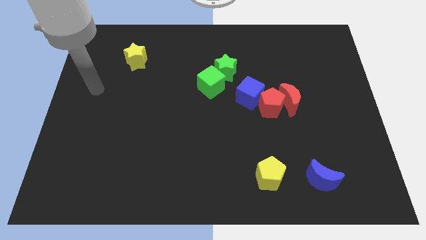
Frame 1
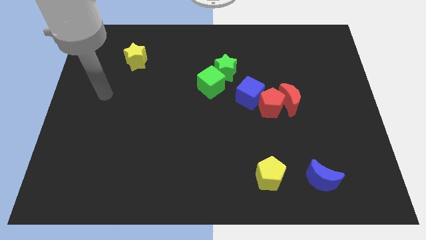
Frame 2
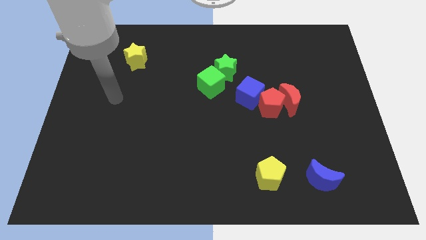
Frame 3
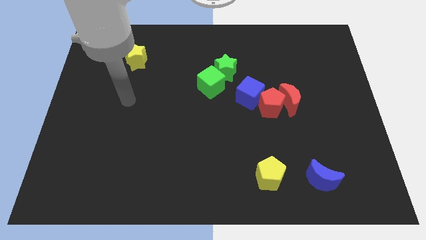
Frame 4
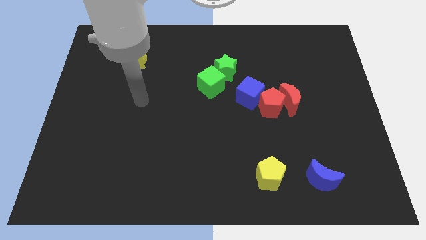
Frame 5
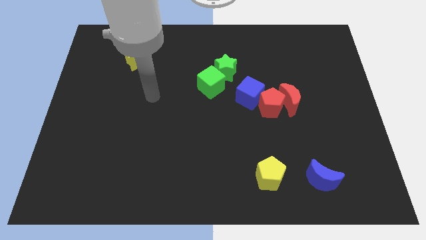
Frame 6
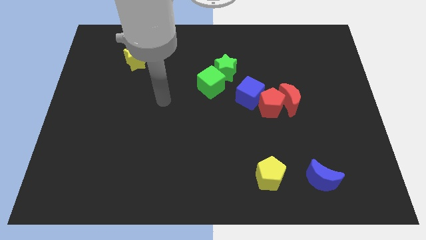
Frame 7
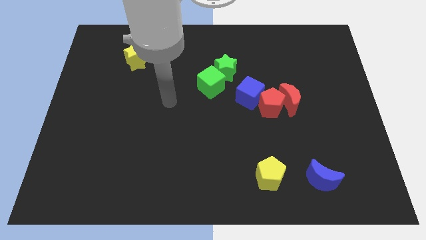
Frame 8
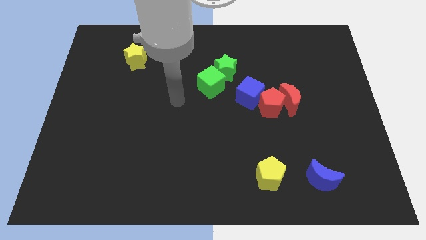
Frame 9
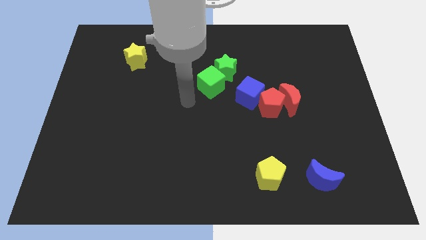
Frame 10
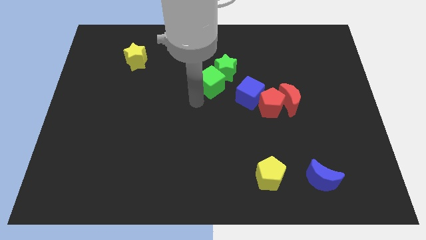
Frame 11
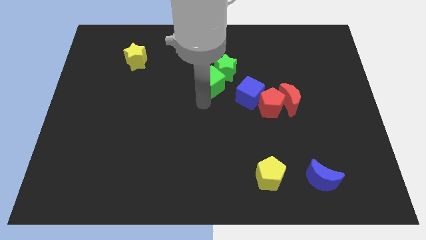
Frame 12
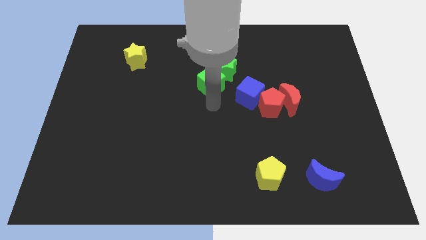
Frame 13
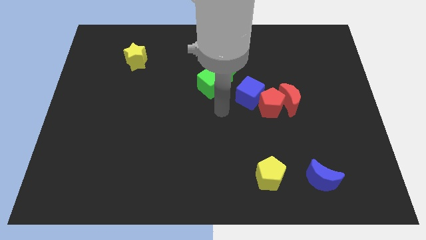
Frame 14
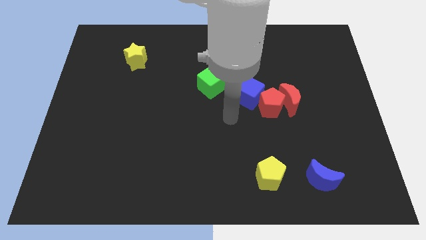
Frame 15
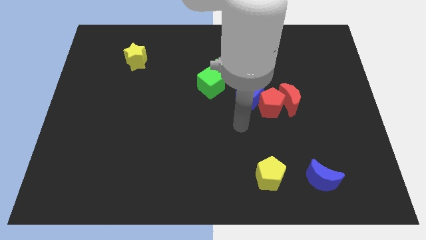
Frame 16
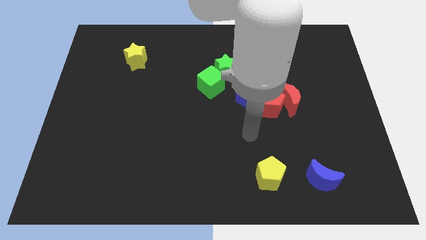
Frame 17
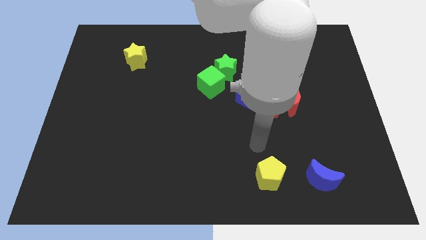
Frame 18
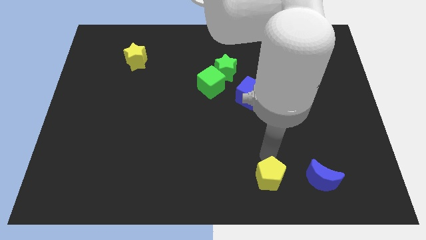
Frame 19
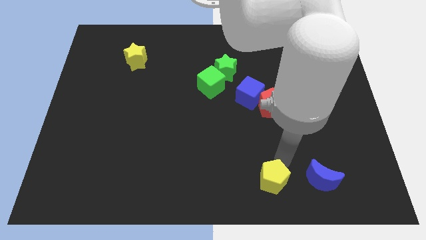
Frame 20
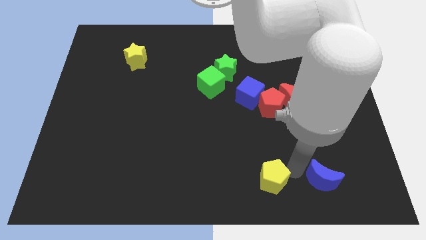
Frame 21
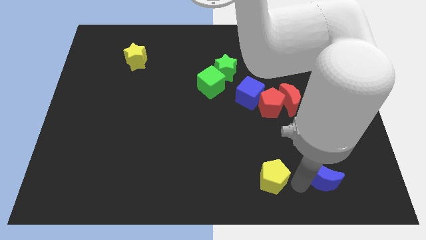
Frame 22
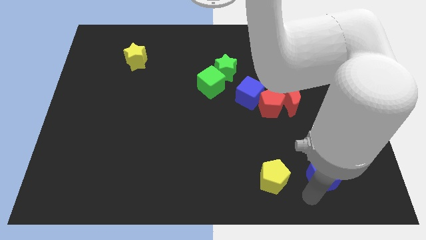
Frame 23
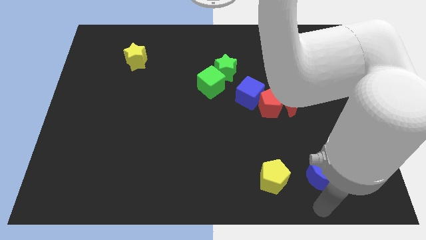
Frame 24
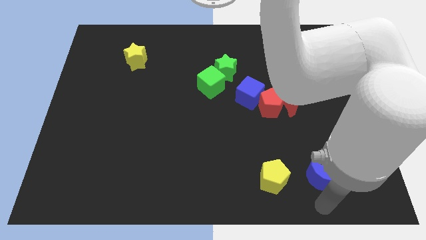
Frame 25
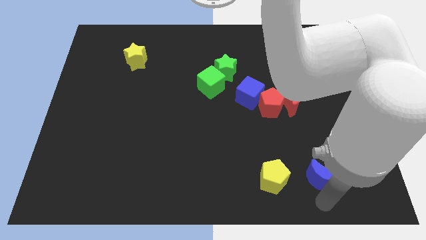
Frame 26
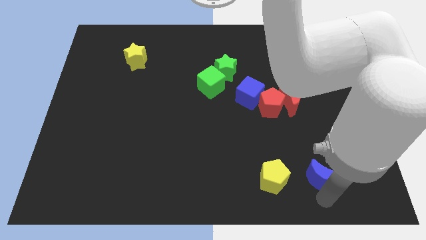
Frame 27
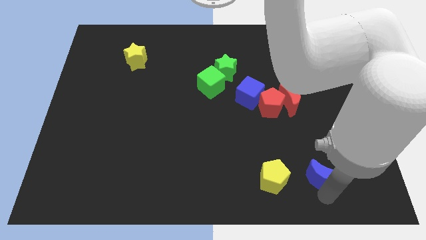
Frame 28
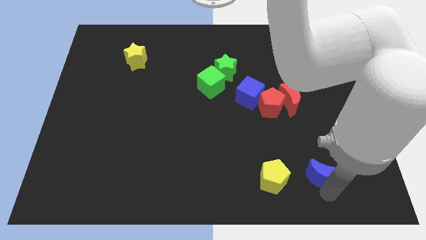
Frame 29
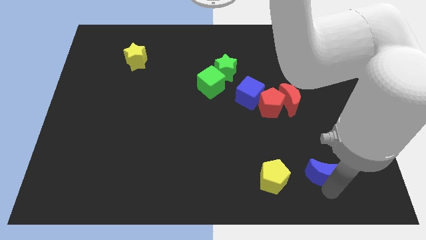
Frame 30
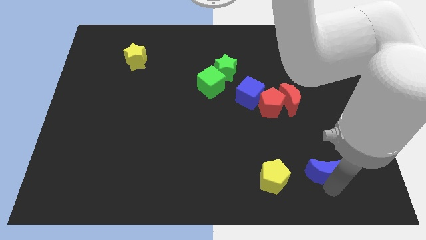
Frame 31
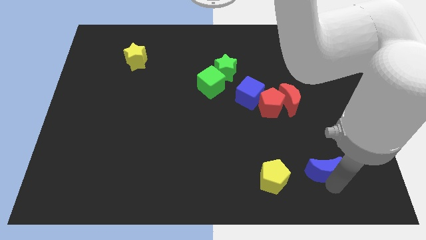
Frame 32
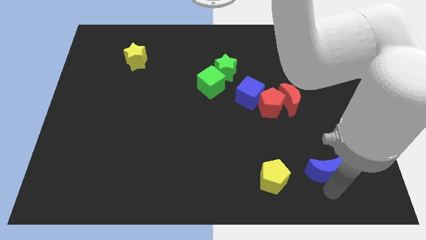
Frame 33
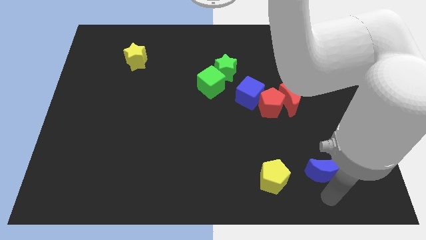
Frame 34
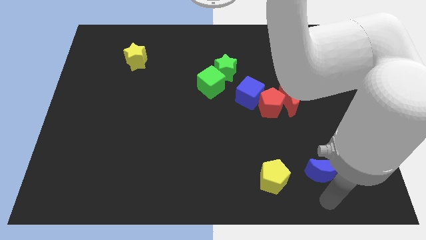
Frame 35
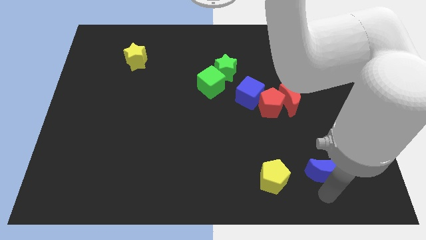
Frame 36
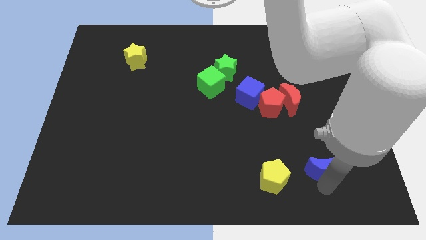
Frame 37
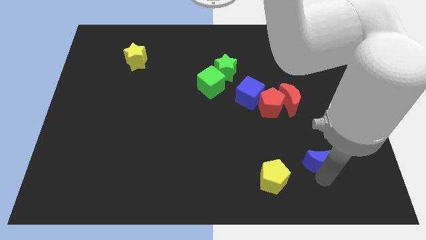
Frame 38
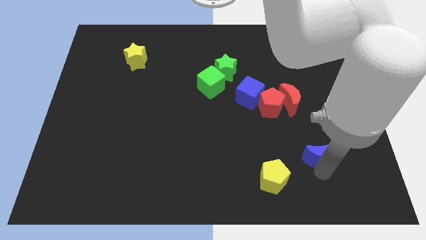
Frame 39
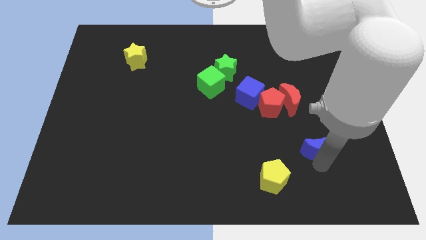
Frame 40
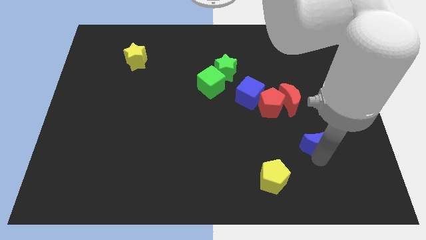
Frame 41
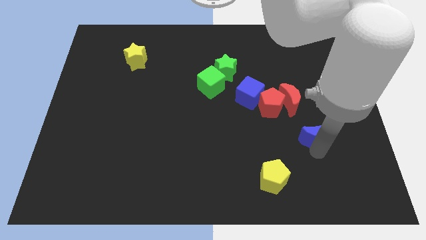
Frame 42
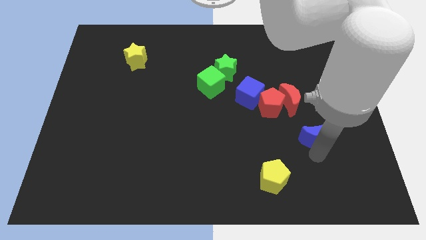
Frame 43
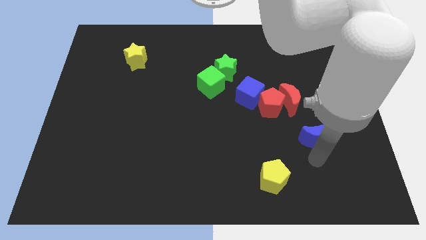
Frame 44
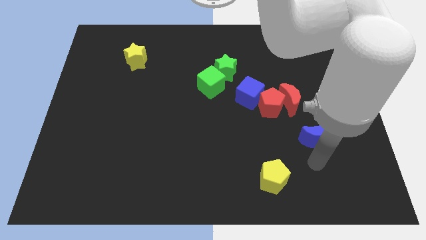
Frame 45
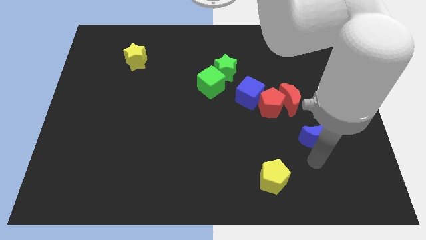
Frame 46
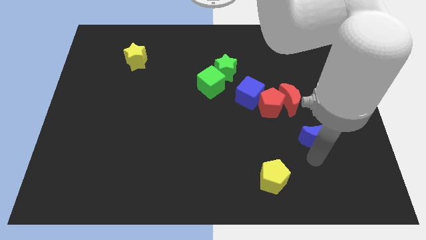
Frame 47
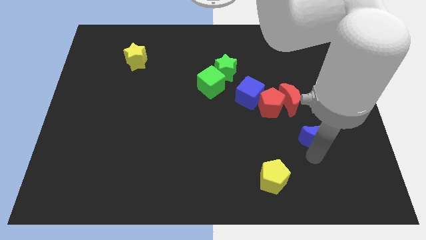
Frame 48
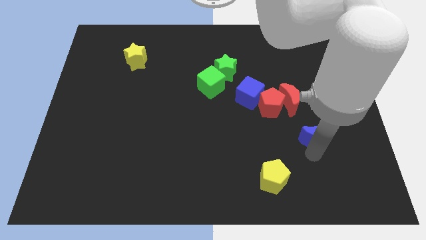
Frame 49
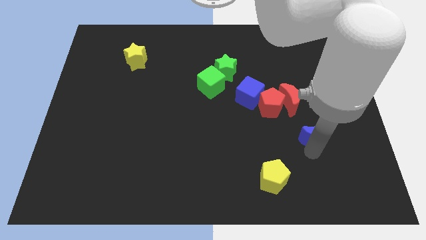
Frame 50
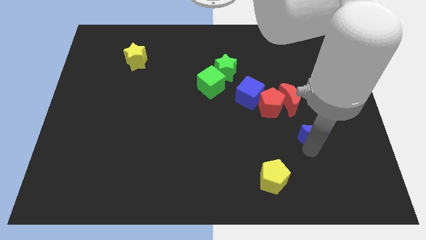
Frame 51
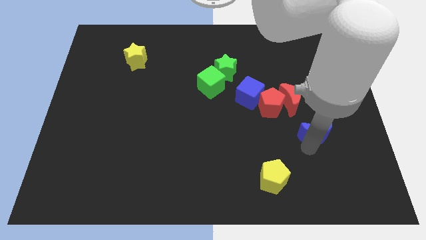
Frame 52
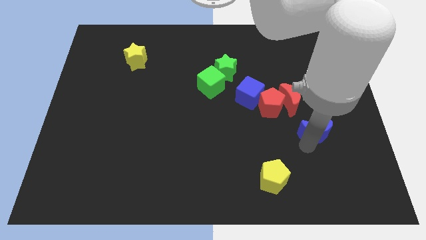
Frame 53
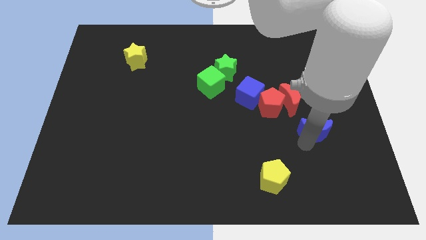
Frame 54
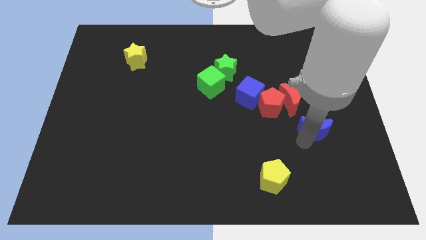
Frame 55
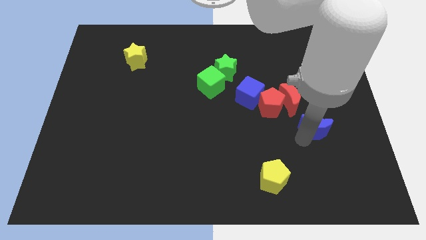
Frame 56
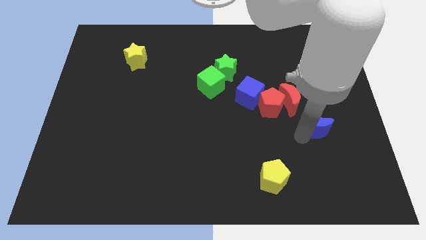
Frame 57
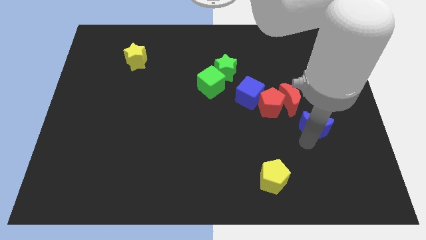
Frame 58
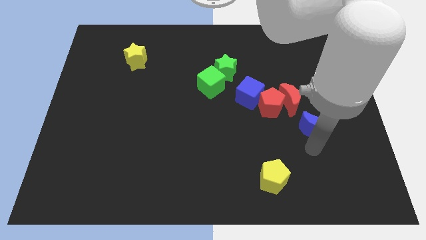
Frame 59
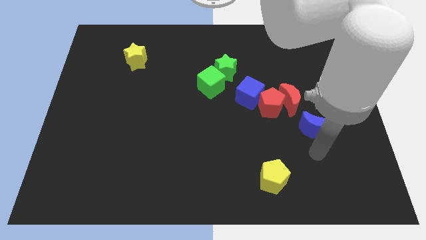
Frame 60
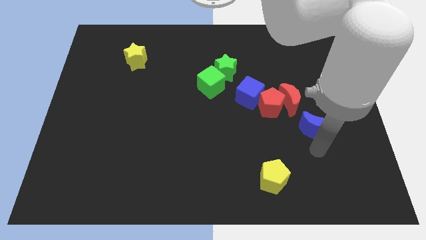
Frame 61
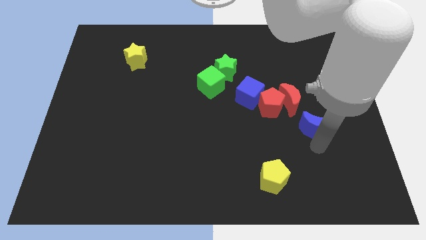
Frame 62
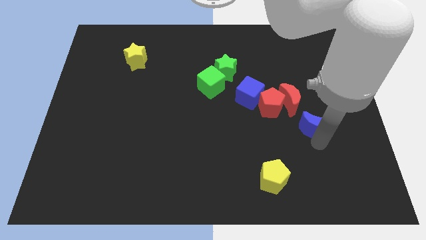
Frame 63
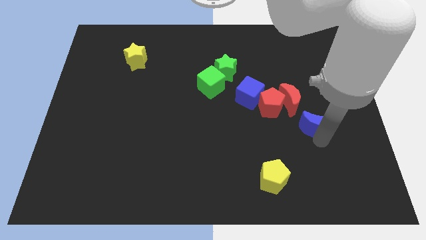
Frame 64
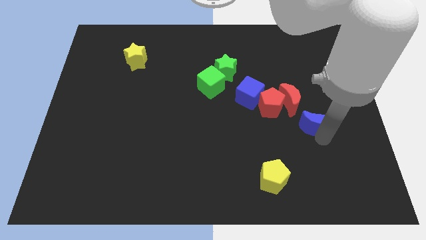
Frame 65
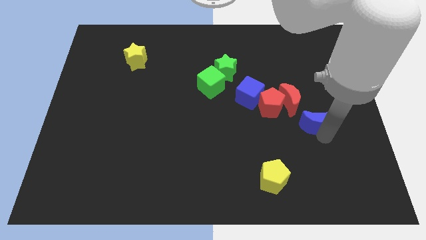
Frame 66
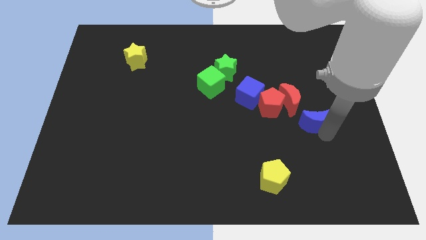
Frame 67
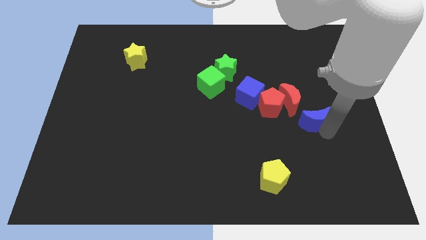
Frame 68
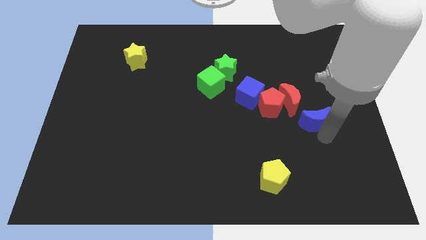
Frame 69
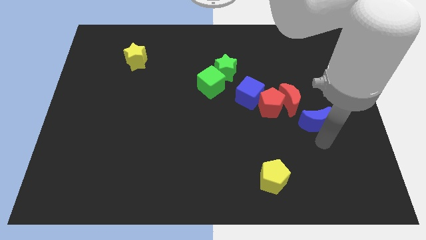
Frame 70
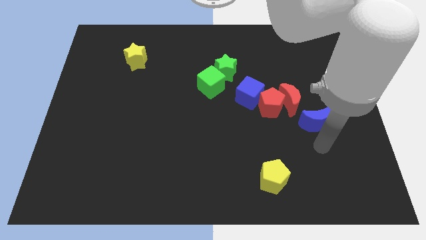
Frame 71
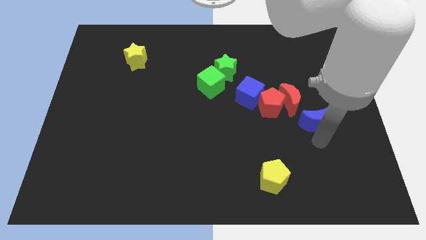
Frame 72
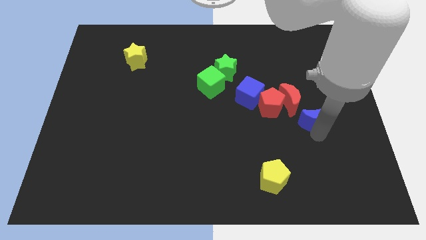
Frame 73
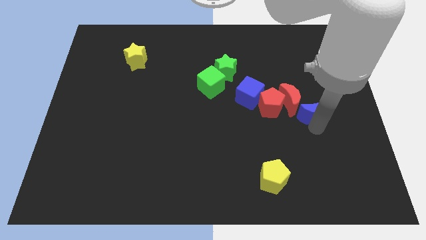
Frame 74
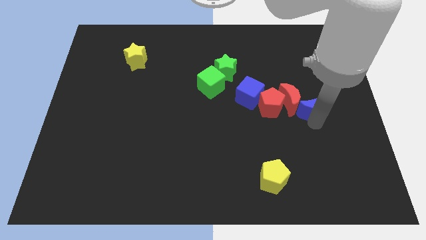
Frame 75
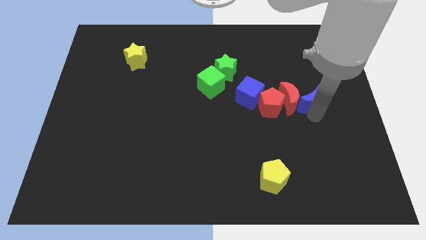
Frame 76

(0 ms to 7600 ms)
push the blue moon upwards

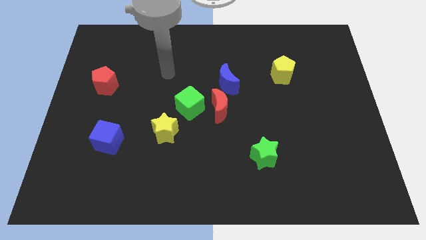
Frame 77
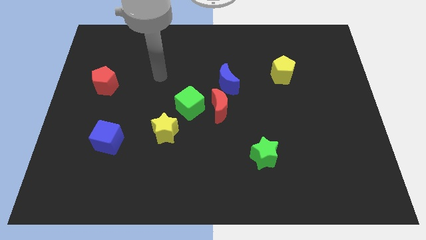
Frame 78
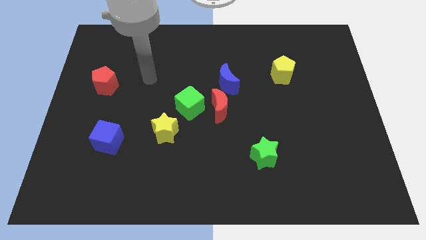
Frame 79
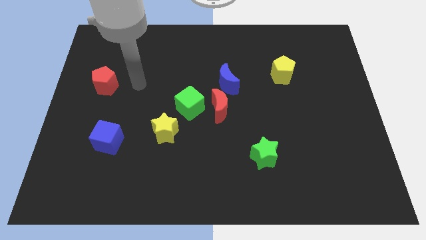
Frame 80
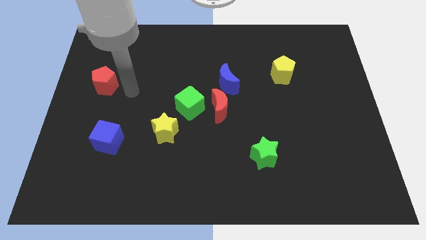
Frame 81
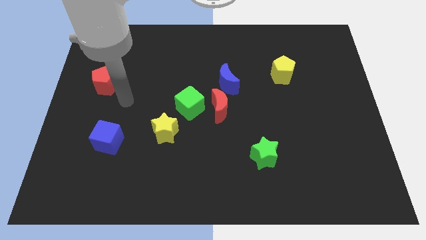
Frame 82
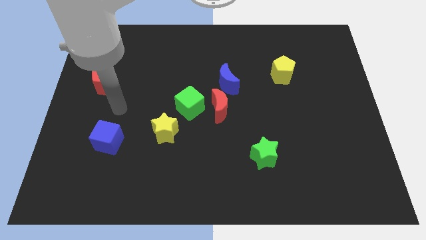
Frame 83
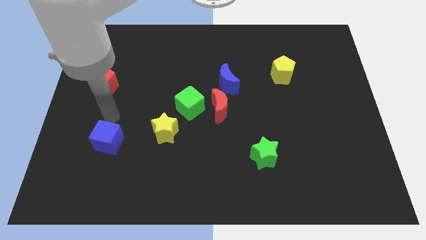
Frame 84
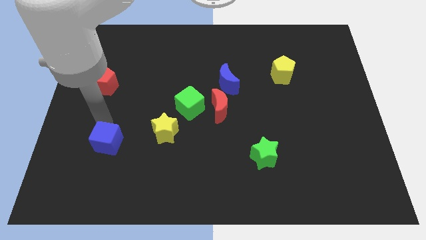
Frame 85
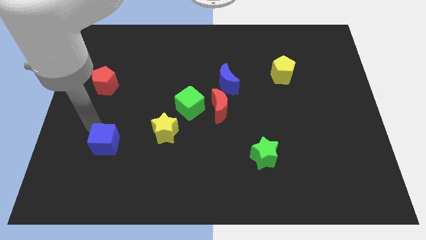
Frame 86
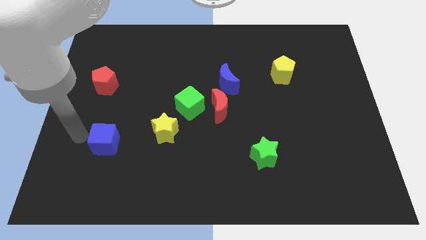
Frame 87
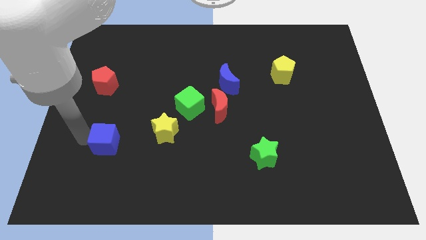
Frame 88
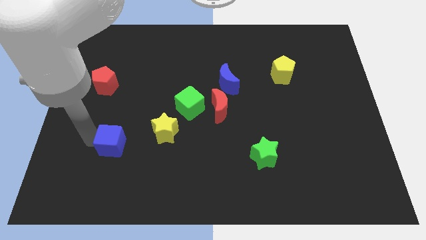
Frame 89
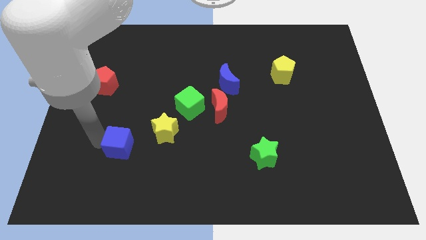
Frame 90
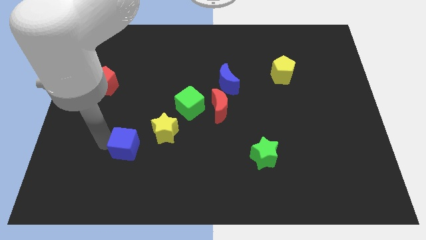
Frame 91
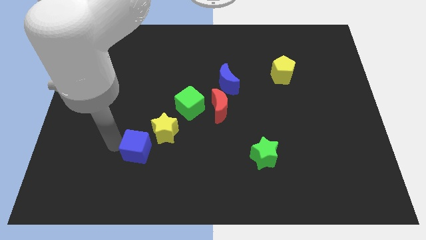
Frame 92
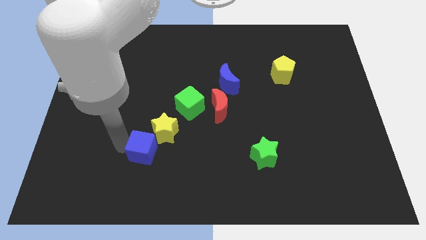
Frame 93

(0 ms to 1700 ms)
move the blue cube somewhat right
